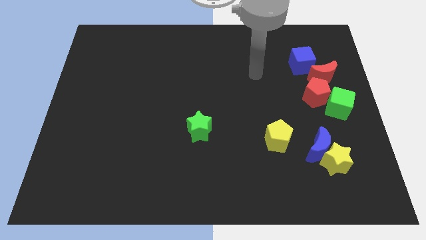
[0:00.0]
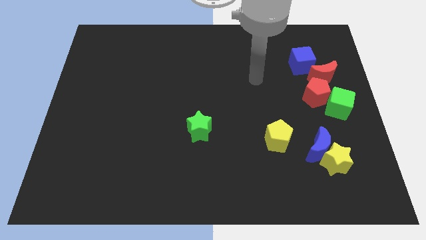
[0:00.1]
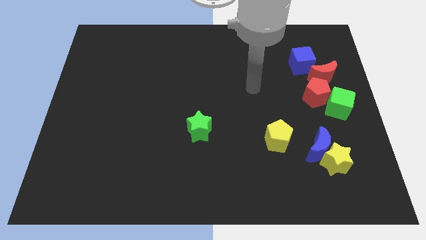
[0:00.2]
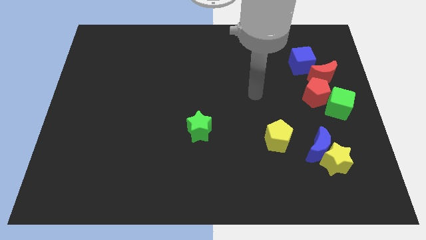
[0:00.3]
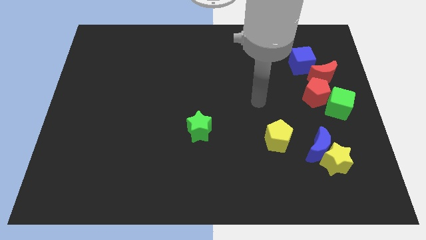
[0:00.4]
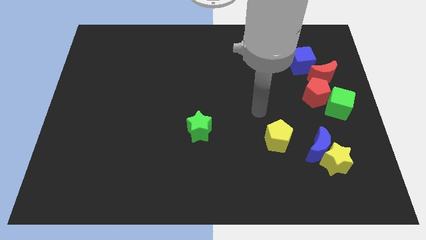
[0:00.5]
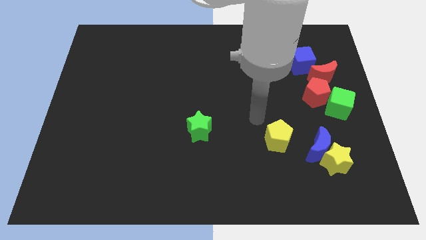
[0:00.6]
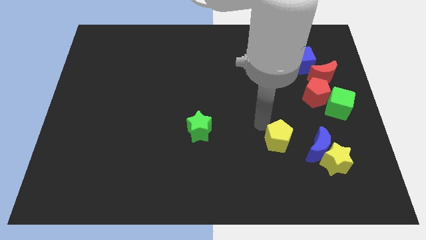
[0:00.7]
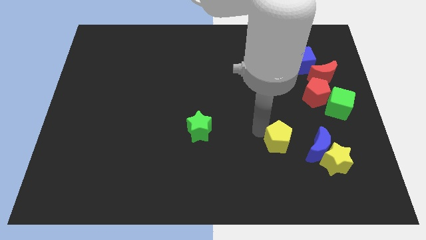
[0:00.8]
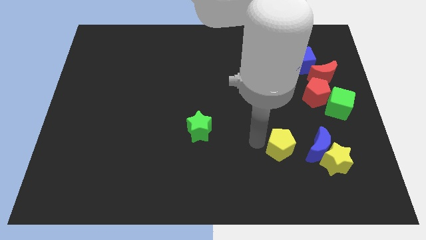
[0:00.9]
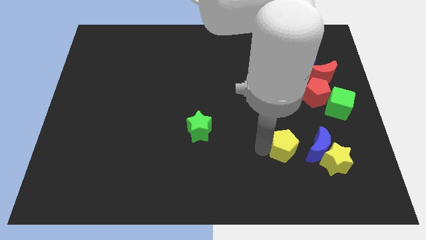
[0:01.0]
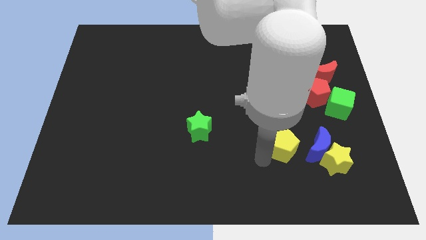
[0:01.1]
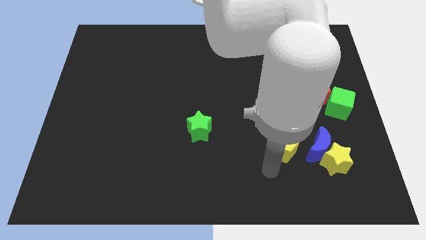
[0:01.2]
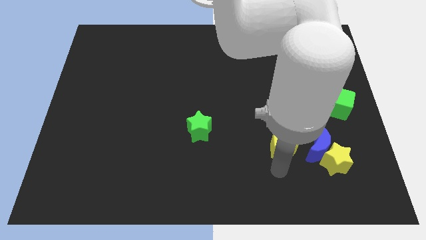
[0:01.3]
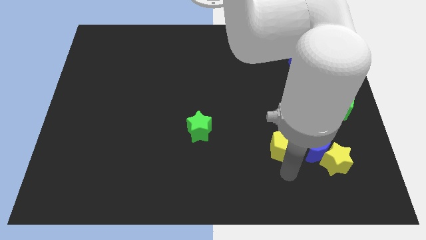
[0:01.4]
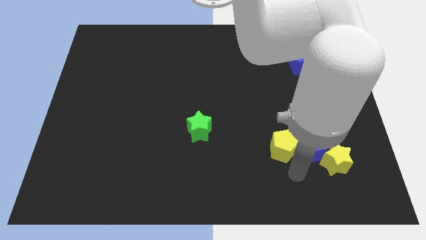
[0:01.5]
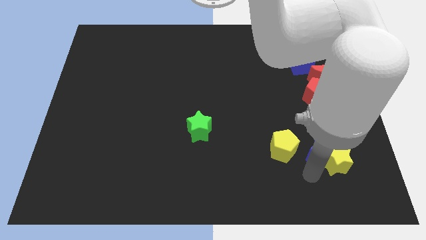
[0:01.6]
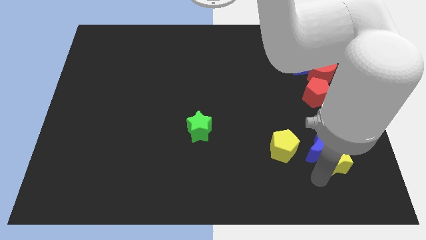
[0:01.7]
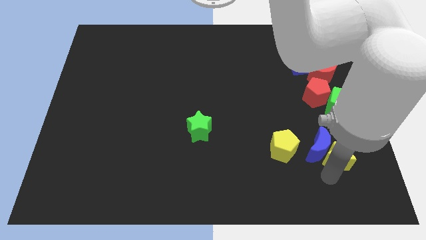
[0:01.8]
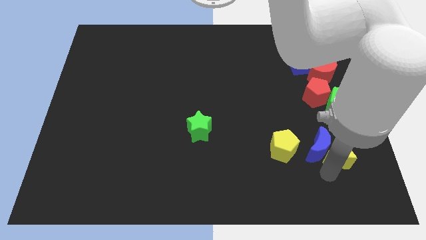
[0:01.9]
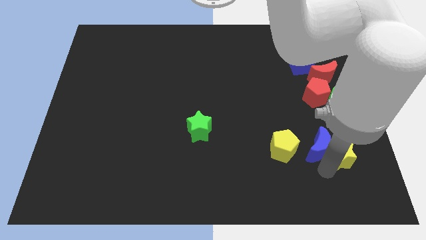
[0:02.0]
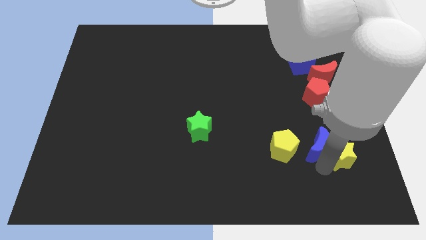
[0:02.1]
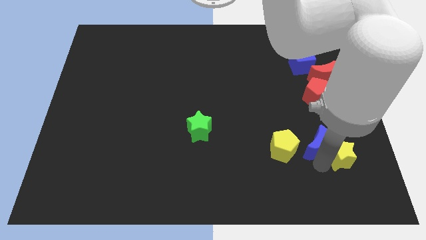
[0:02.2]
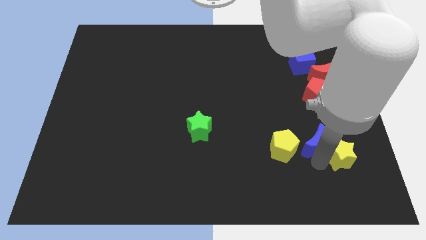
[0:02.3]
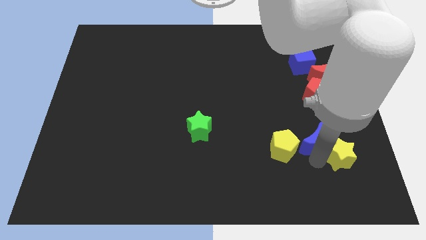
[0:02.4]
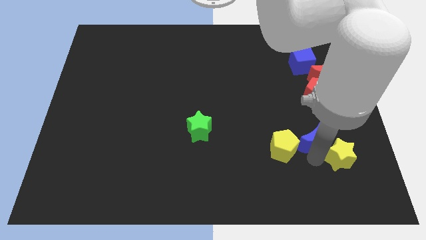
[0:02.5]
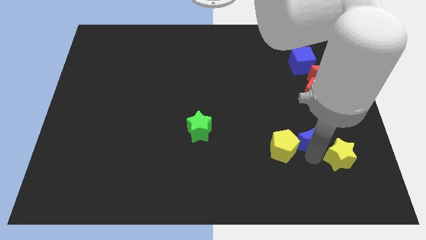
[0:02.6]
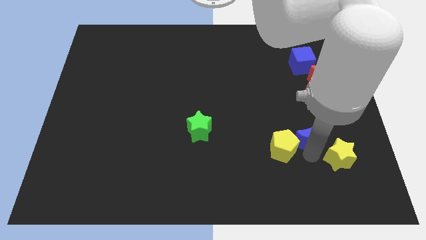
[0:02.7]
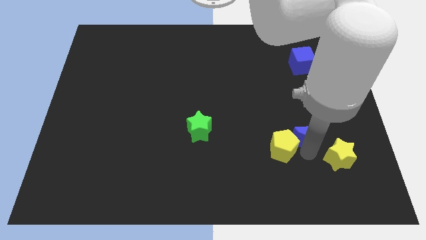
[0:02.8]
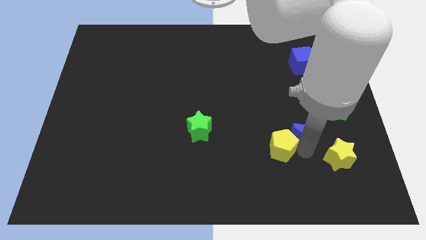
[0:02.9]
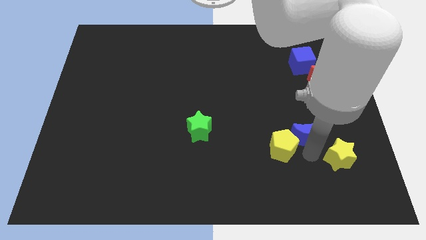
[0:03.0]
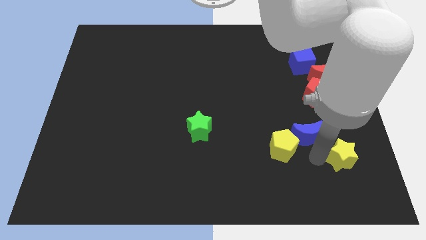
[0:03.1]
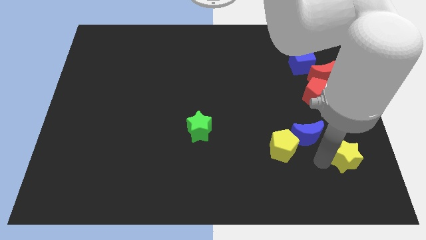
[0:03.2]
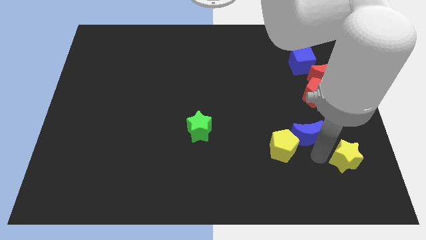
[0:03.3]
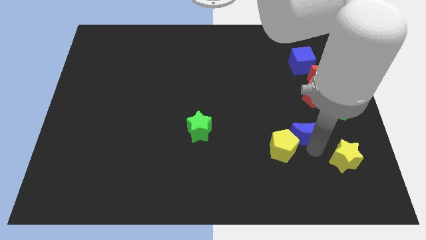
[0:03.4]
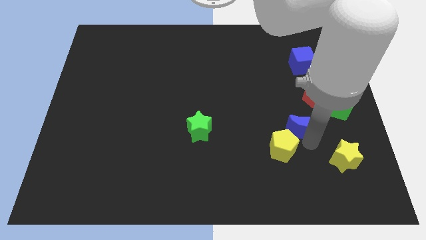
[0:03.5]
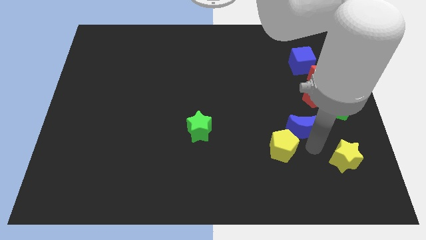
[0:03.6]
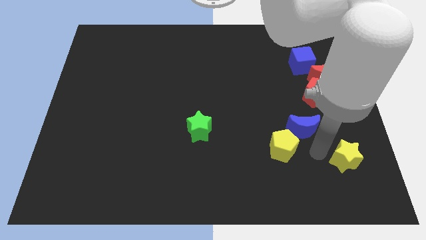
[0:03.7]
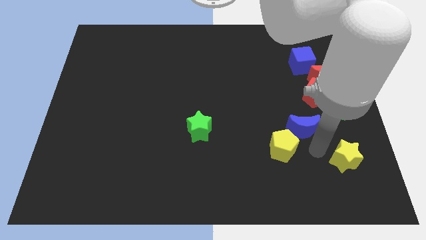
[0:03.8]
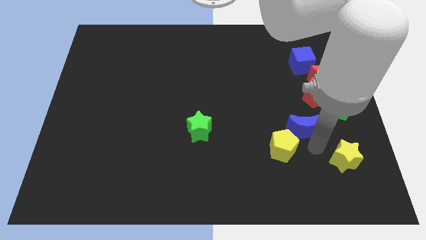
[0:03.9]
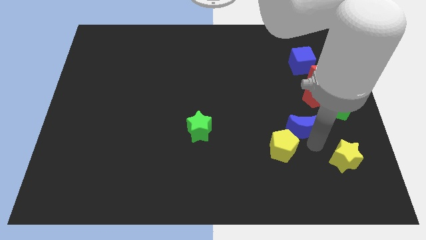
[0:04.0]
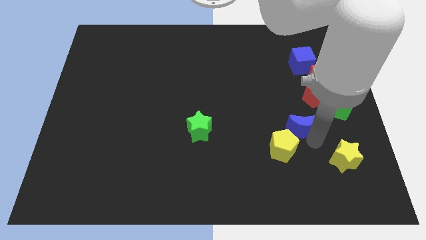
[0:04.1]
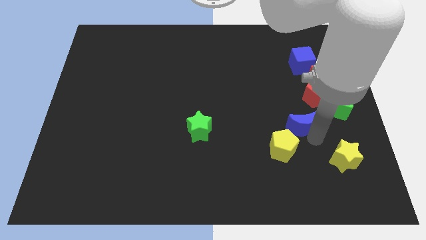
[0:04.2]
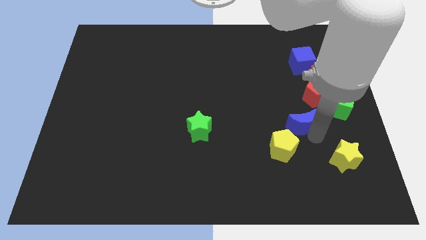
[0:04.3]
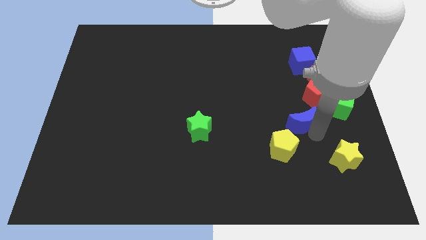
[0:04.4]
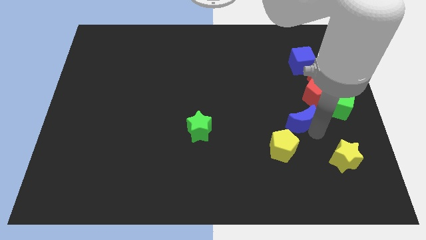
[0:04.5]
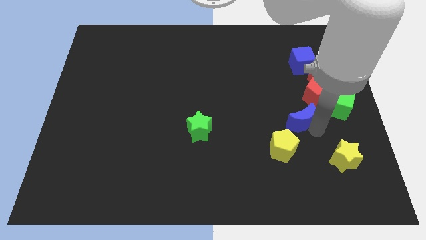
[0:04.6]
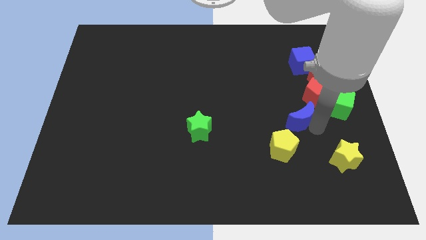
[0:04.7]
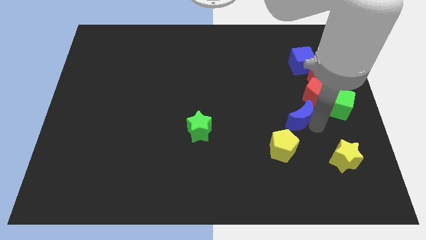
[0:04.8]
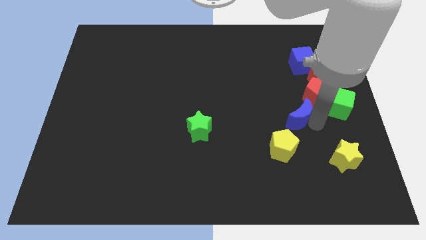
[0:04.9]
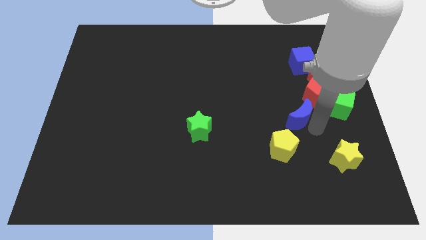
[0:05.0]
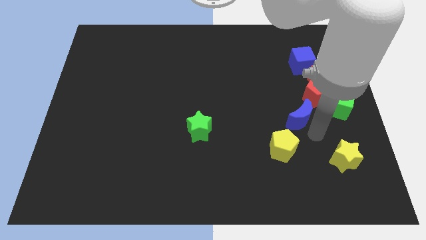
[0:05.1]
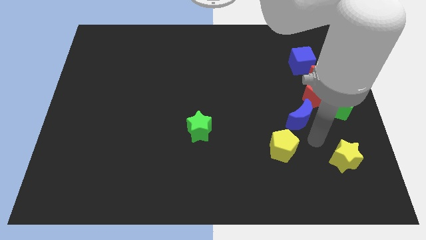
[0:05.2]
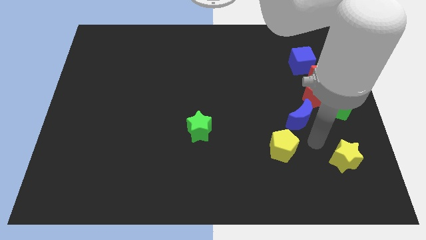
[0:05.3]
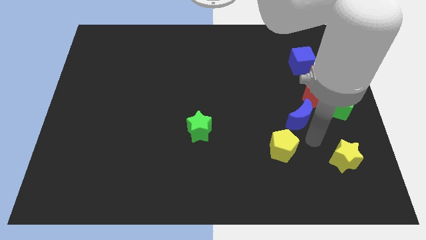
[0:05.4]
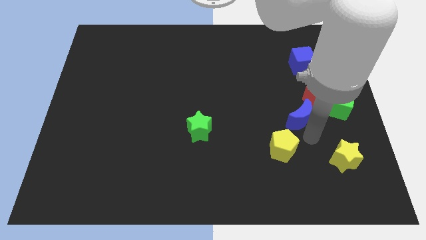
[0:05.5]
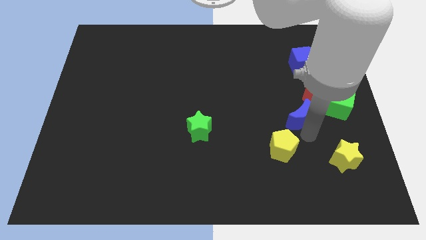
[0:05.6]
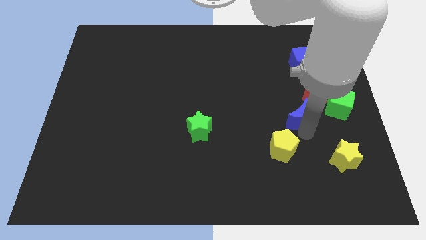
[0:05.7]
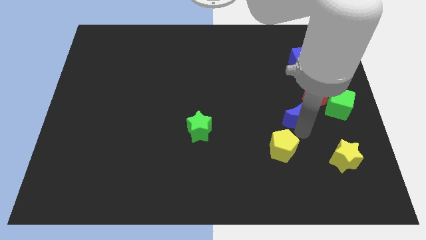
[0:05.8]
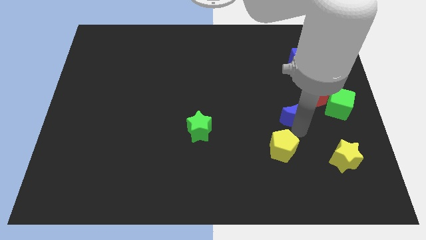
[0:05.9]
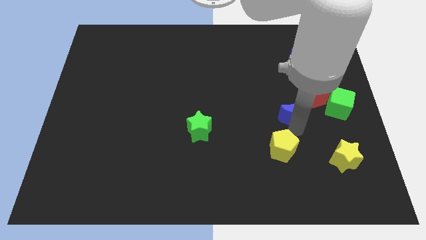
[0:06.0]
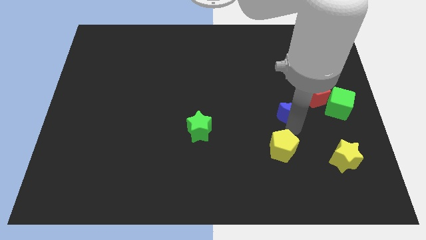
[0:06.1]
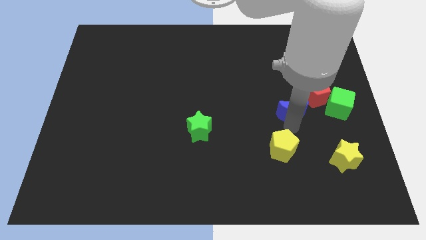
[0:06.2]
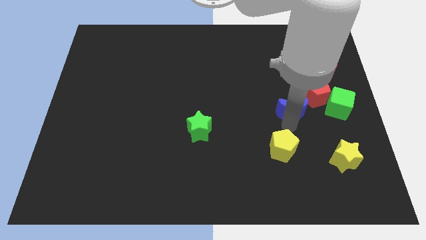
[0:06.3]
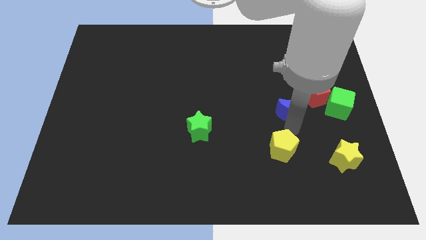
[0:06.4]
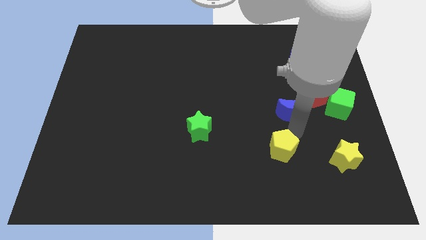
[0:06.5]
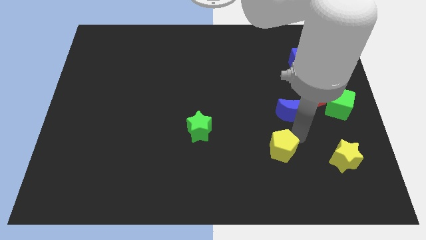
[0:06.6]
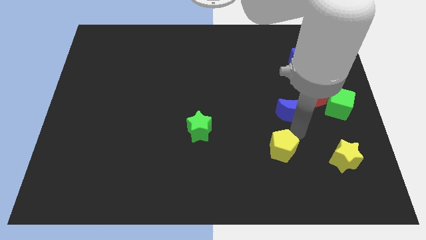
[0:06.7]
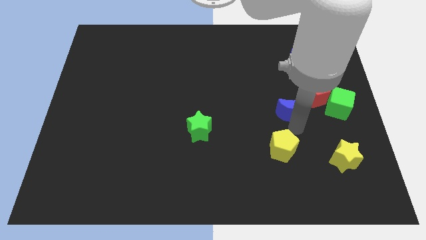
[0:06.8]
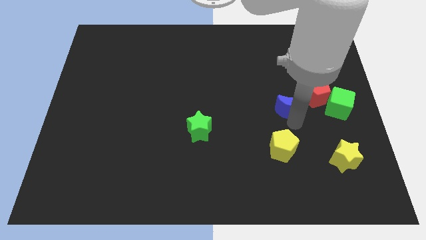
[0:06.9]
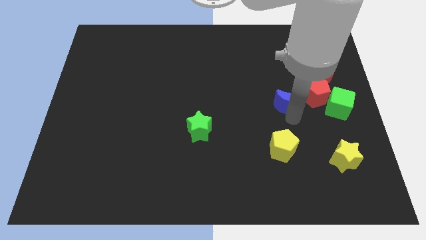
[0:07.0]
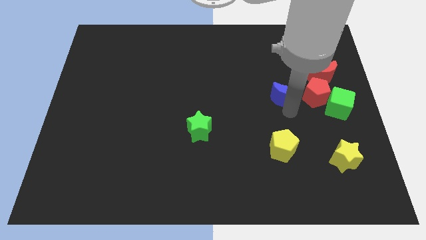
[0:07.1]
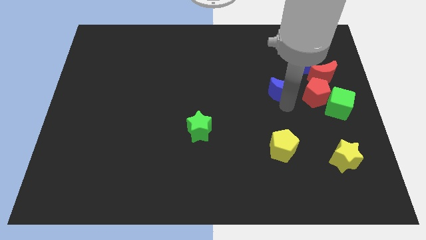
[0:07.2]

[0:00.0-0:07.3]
slide the blue moon diagonally down and to the left of the blue cube

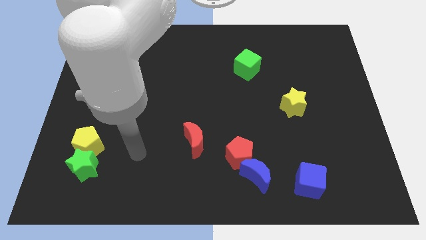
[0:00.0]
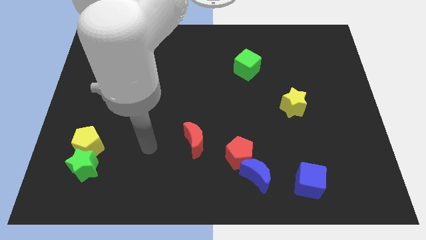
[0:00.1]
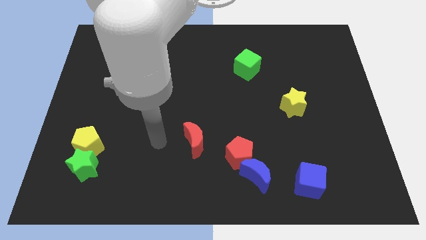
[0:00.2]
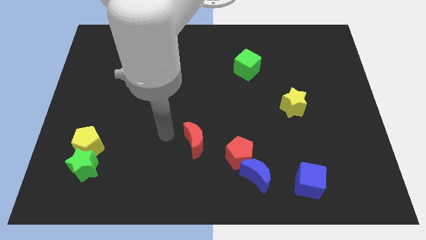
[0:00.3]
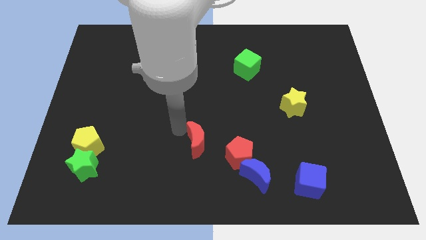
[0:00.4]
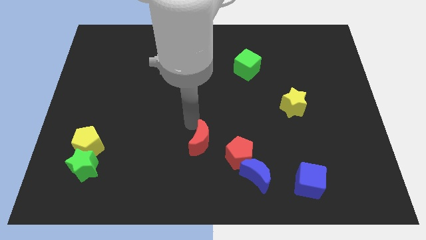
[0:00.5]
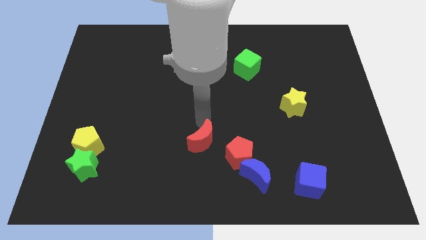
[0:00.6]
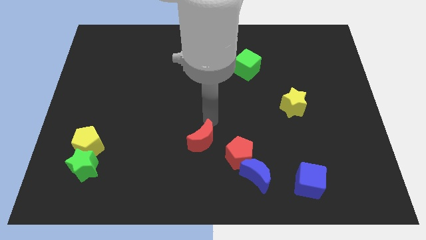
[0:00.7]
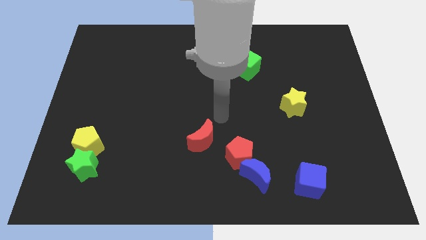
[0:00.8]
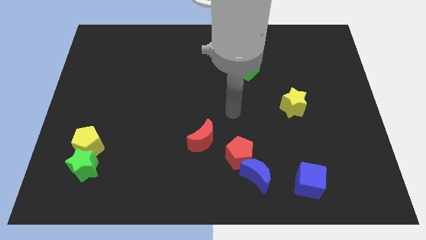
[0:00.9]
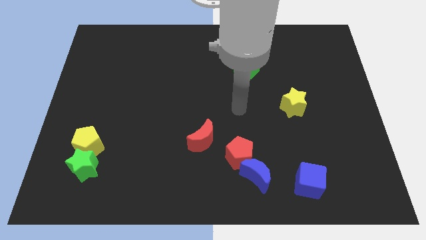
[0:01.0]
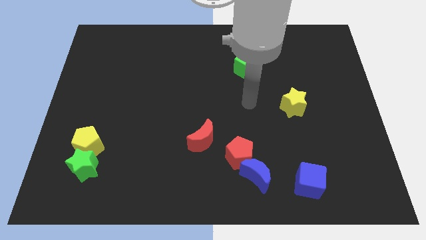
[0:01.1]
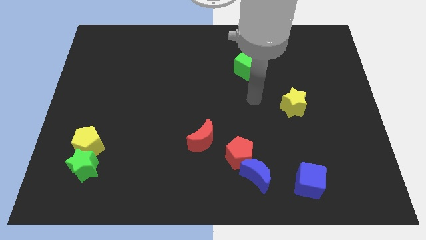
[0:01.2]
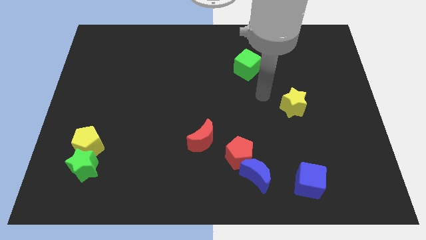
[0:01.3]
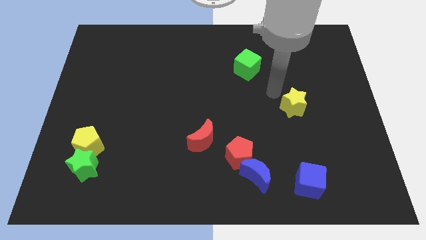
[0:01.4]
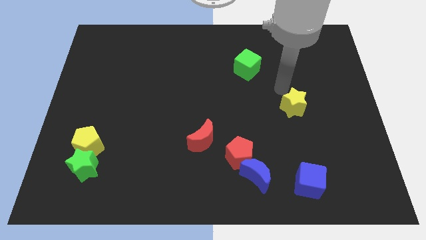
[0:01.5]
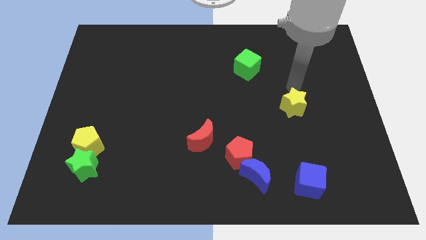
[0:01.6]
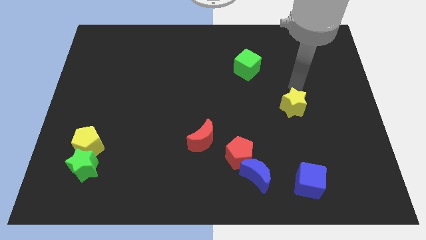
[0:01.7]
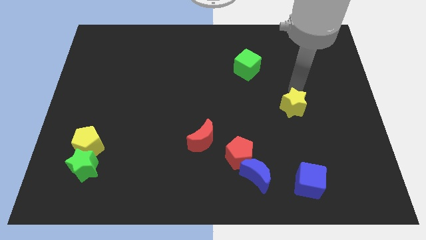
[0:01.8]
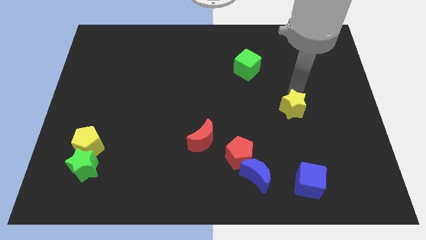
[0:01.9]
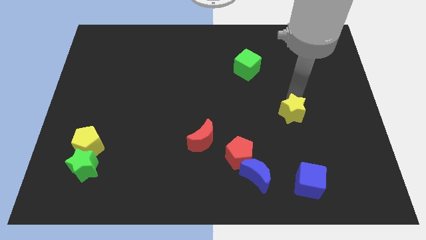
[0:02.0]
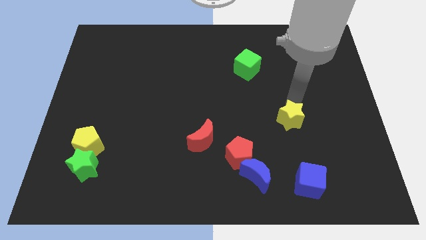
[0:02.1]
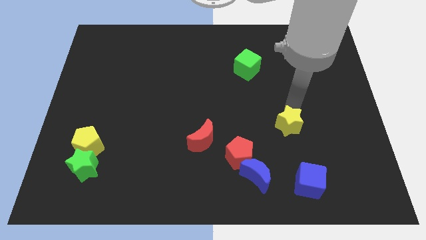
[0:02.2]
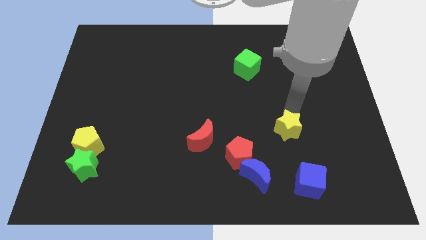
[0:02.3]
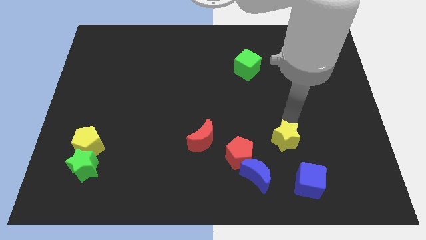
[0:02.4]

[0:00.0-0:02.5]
move the yellow star to the top left of the blue cube
